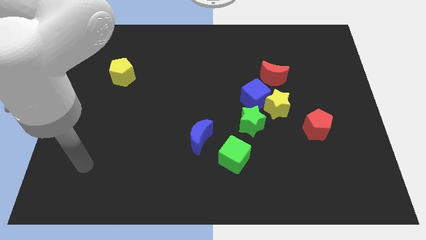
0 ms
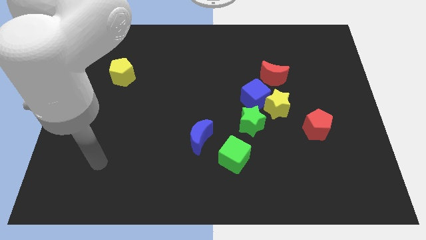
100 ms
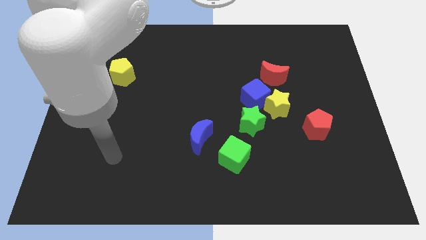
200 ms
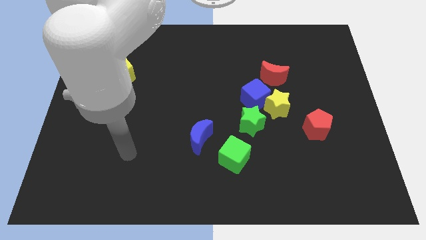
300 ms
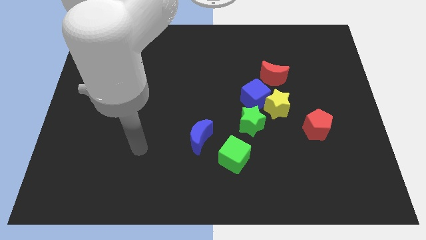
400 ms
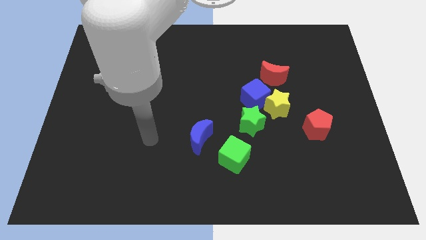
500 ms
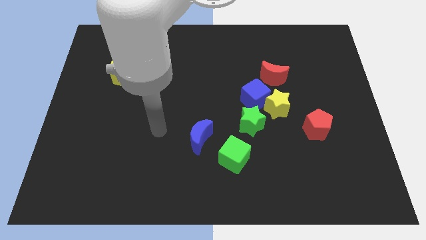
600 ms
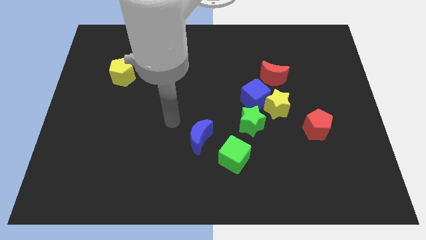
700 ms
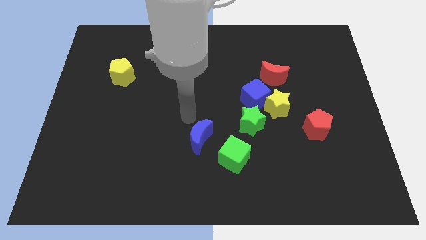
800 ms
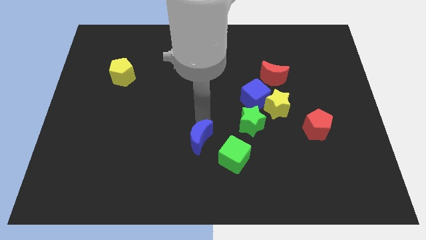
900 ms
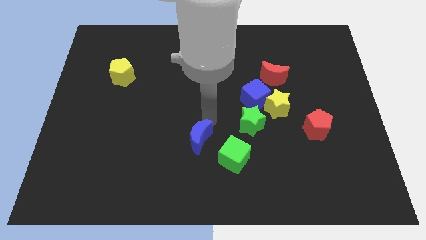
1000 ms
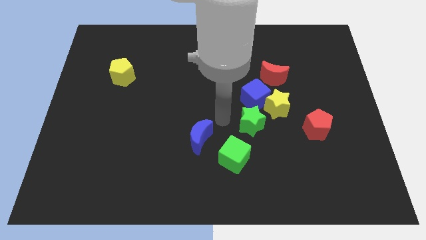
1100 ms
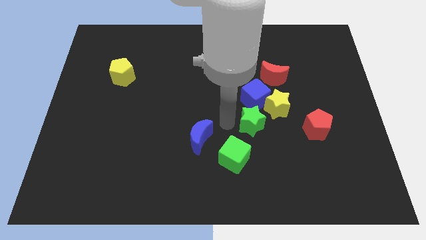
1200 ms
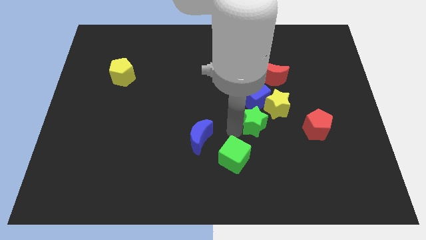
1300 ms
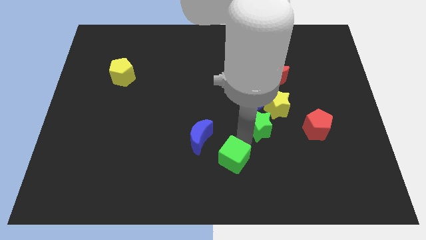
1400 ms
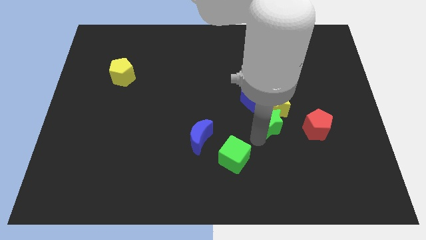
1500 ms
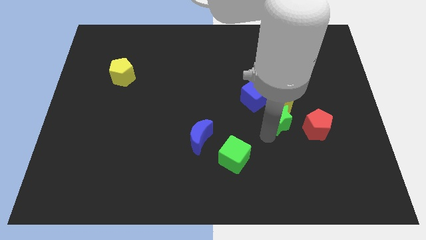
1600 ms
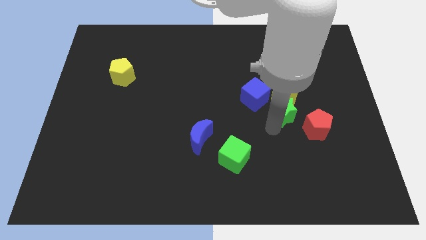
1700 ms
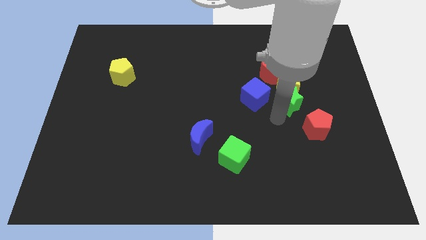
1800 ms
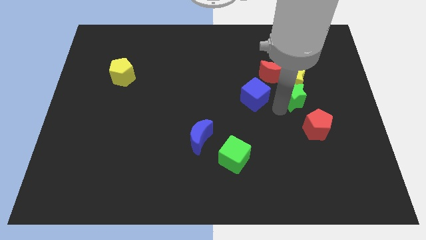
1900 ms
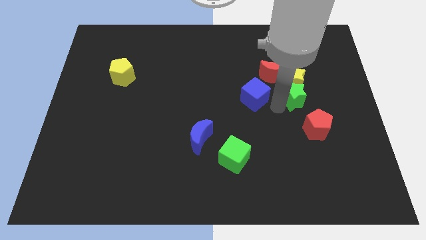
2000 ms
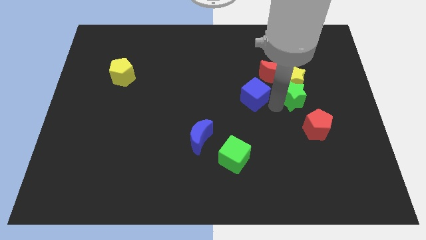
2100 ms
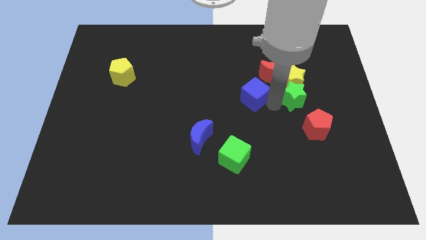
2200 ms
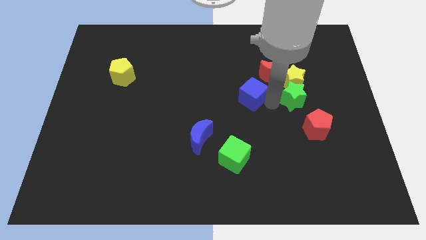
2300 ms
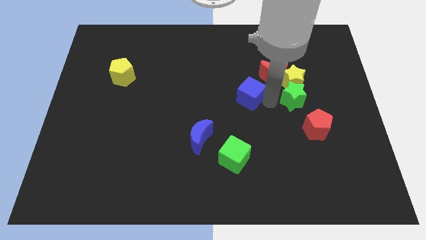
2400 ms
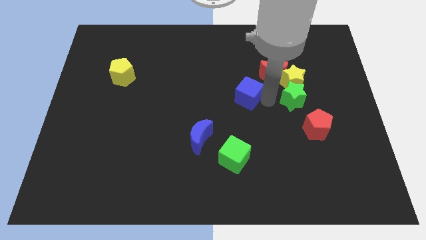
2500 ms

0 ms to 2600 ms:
separate the blue cube from the yellow star, green star, and red moon

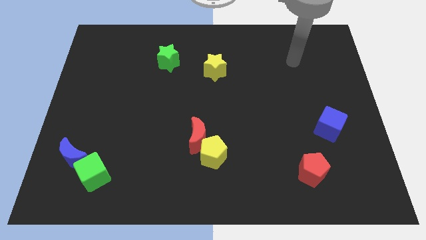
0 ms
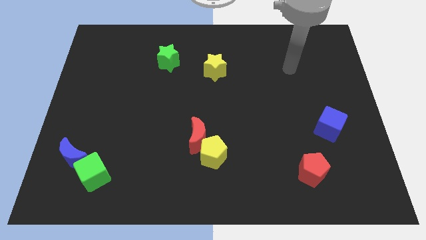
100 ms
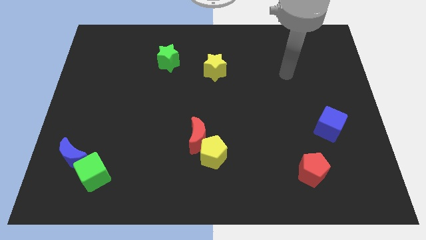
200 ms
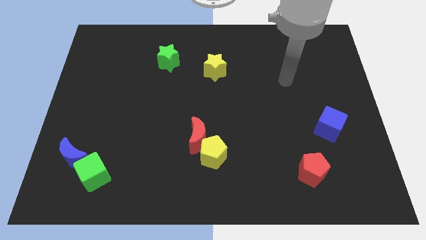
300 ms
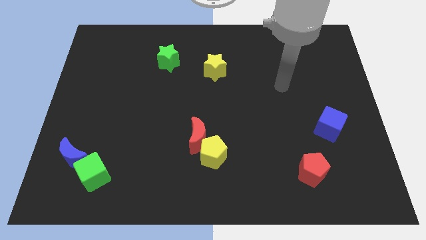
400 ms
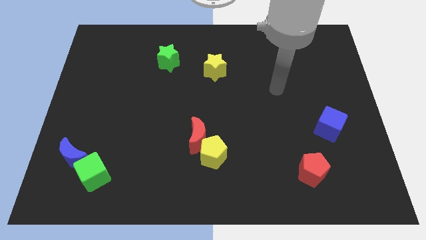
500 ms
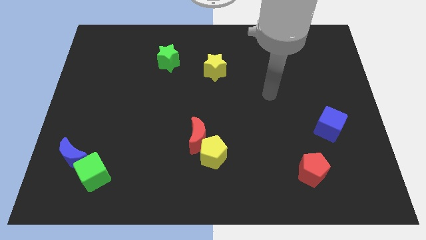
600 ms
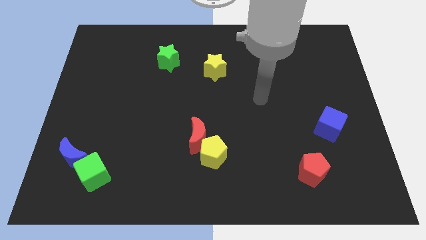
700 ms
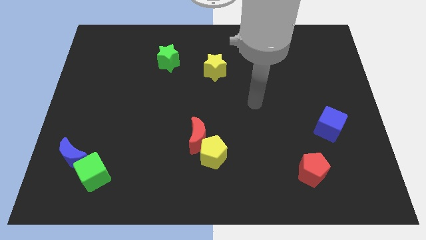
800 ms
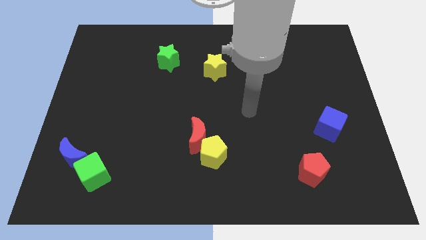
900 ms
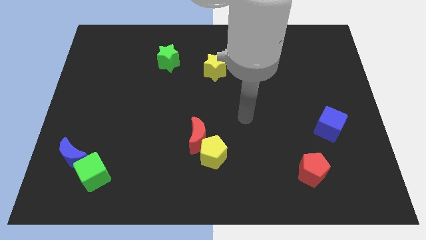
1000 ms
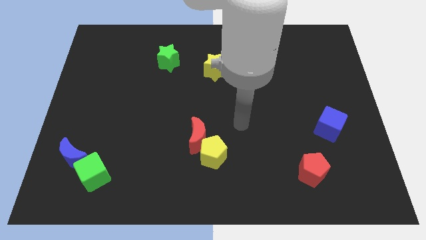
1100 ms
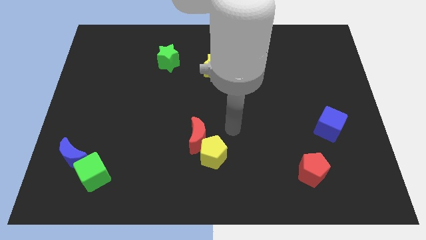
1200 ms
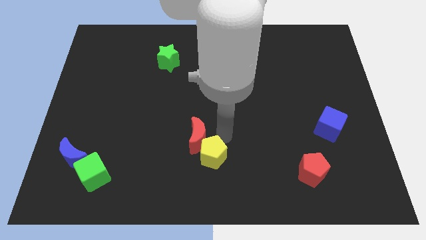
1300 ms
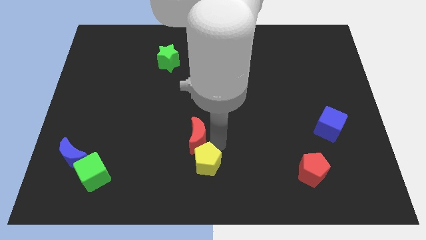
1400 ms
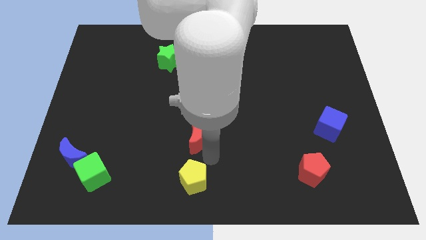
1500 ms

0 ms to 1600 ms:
move the red moon away from the yellow pentagon

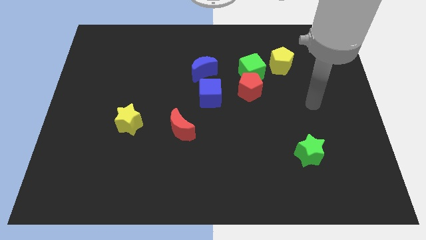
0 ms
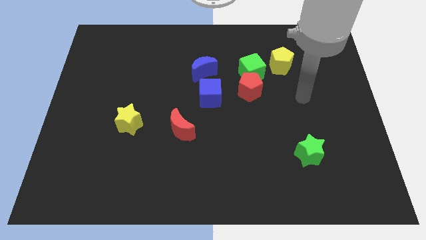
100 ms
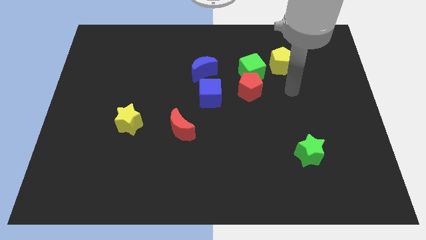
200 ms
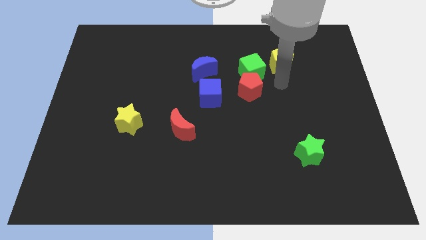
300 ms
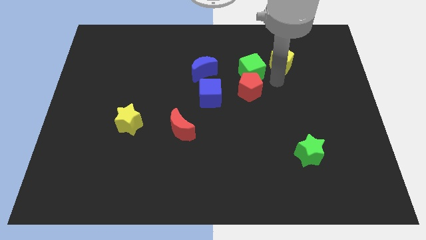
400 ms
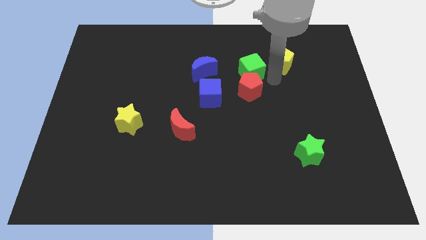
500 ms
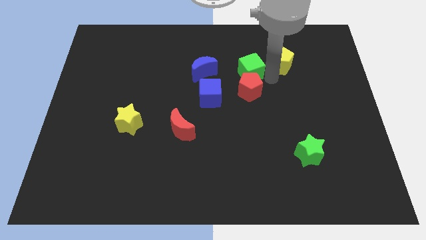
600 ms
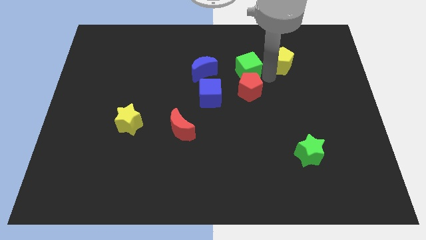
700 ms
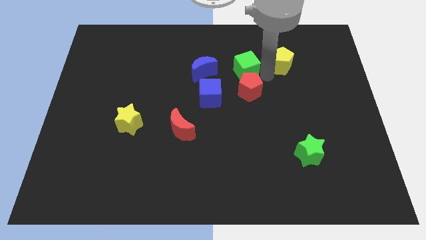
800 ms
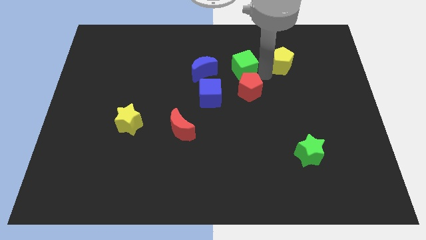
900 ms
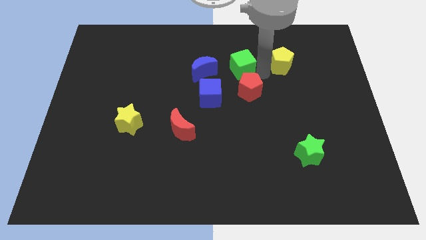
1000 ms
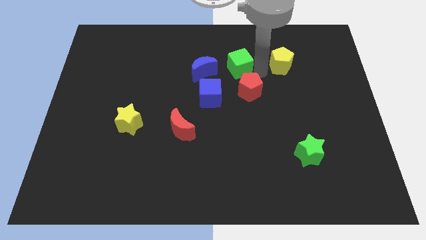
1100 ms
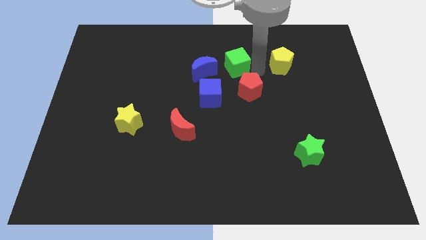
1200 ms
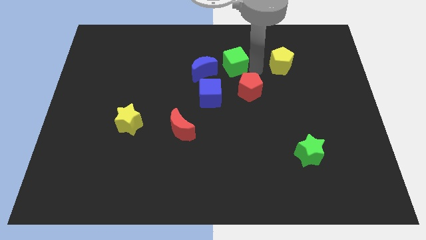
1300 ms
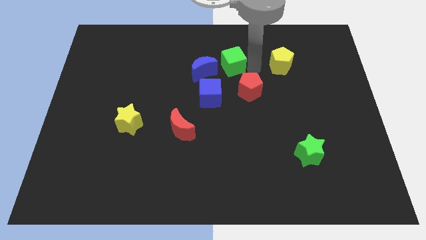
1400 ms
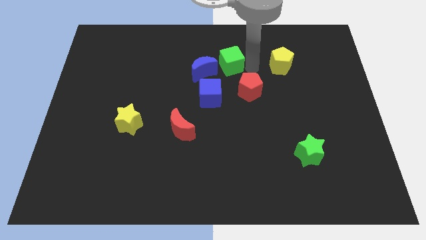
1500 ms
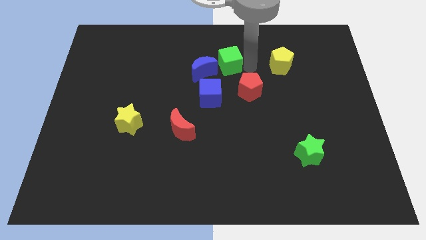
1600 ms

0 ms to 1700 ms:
separate the green cube from the red pentagon and yellow pentagon

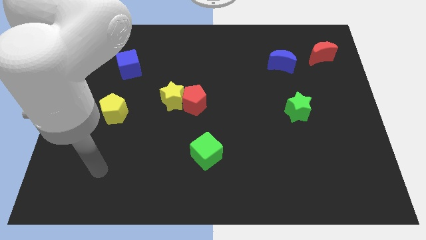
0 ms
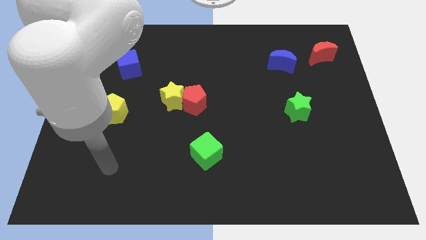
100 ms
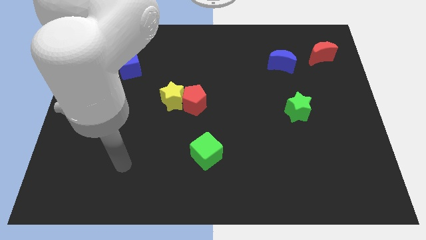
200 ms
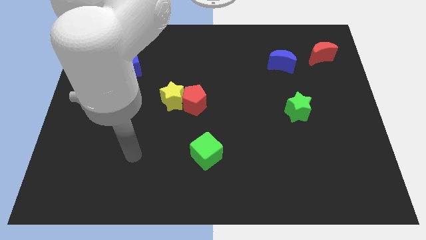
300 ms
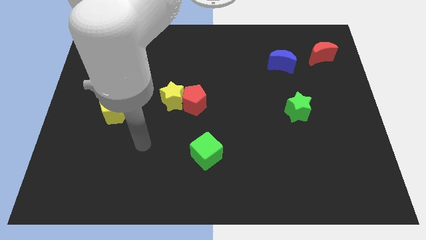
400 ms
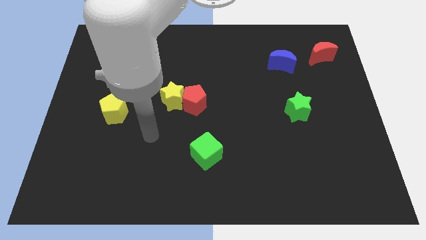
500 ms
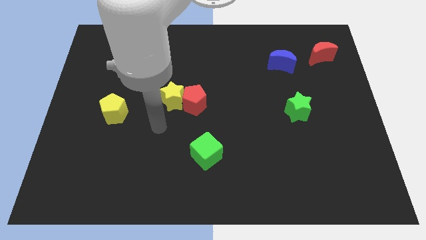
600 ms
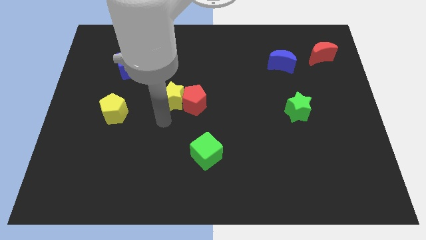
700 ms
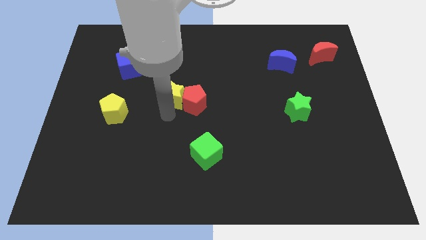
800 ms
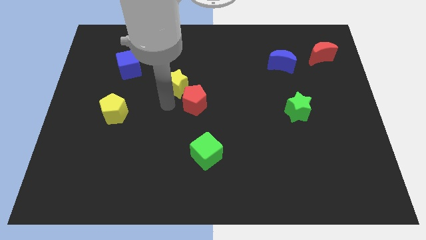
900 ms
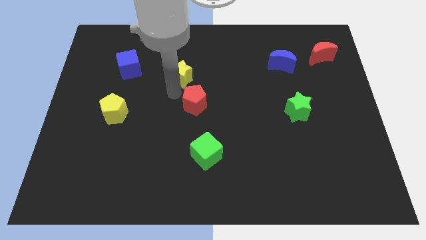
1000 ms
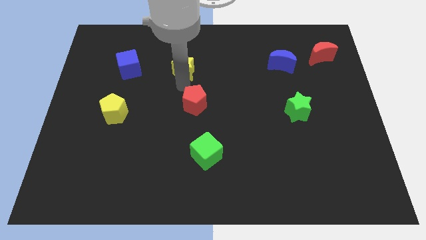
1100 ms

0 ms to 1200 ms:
separate the red pentagon from the yellow star

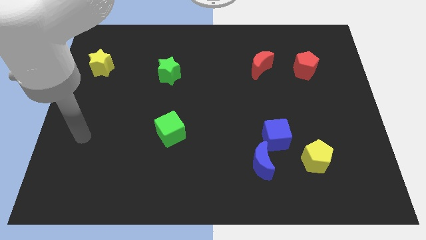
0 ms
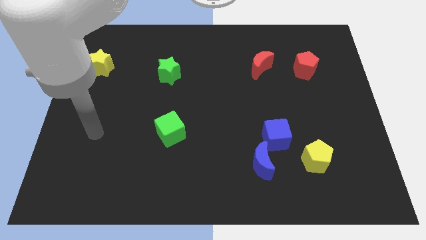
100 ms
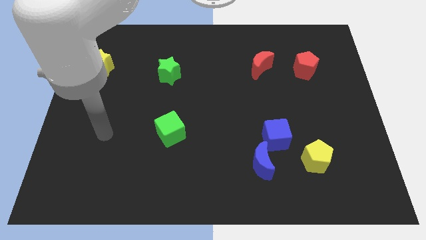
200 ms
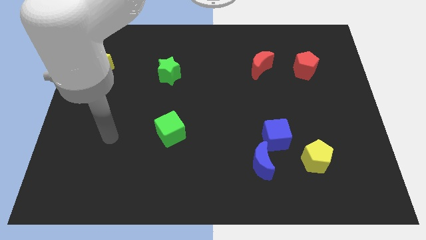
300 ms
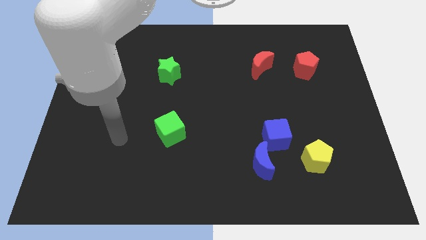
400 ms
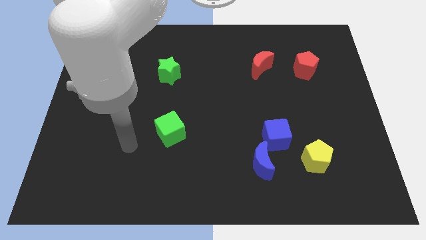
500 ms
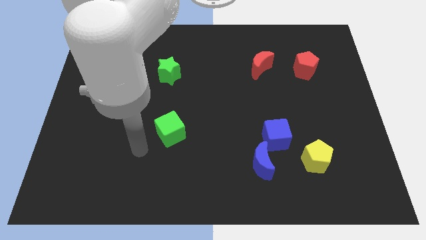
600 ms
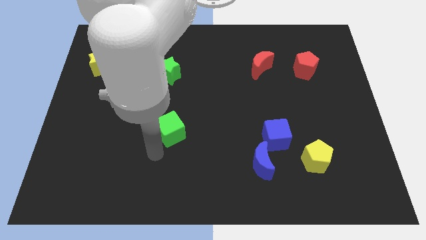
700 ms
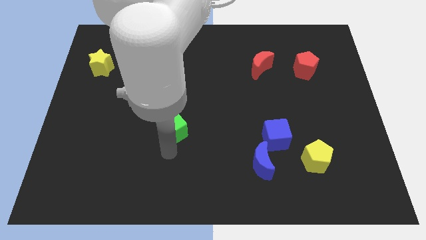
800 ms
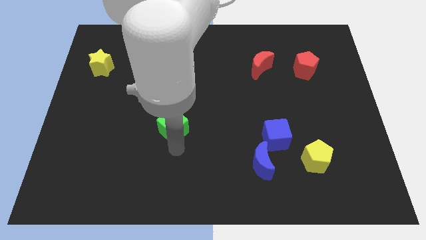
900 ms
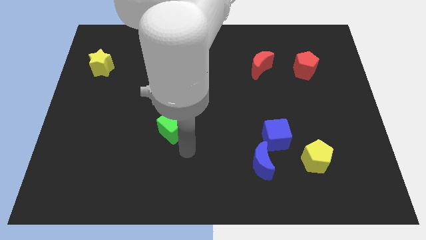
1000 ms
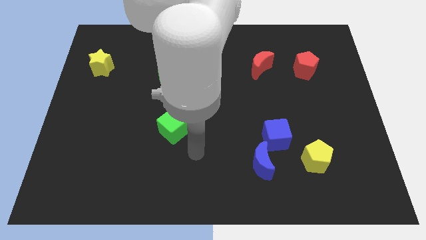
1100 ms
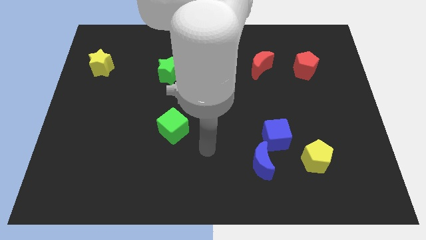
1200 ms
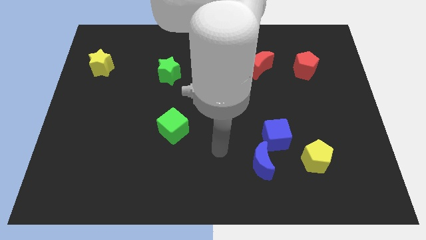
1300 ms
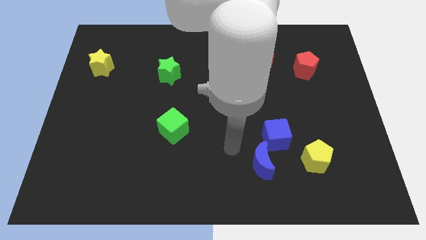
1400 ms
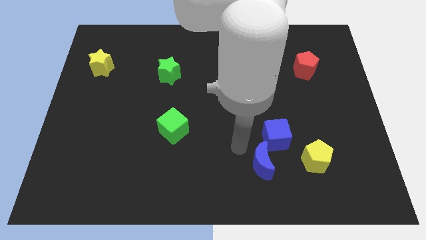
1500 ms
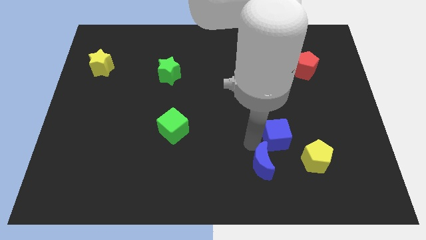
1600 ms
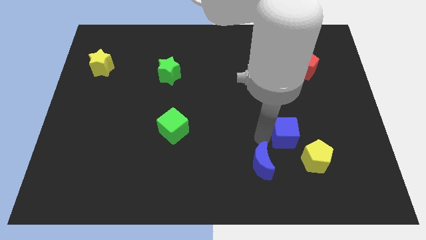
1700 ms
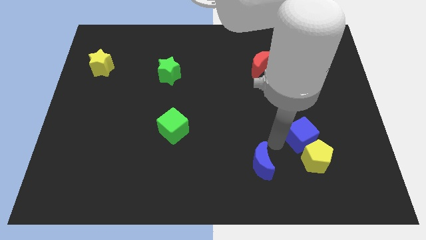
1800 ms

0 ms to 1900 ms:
separate the blue moon from the blue cube

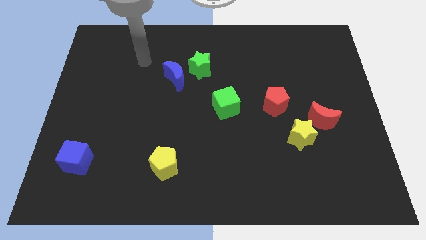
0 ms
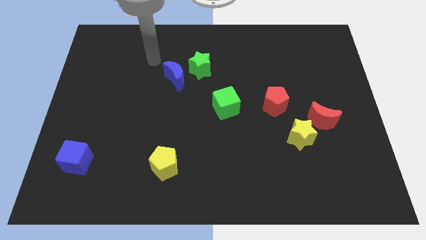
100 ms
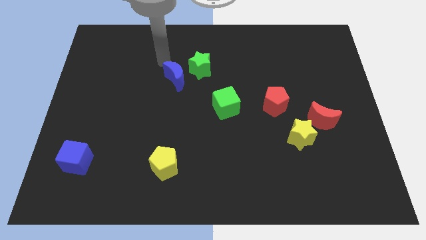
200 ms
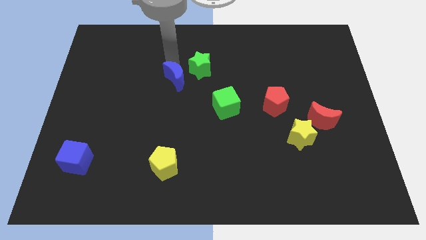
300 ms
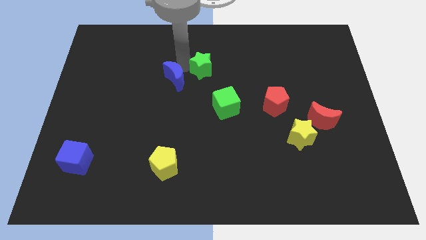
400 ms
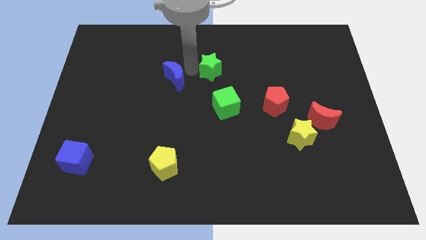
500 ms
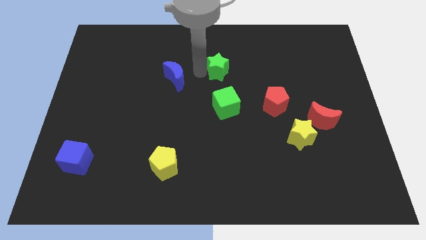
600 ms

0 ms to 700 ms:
pull the blue moon apart from the green star
